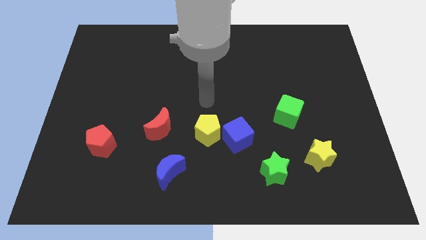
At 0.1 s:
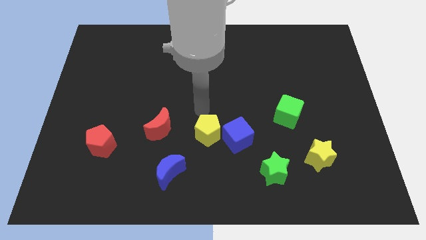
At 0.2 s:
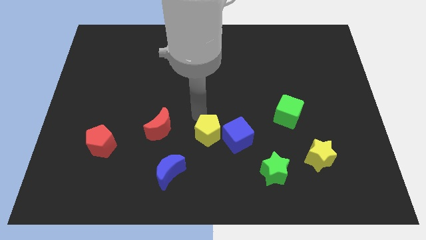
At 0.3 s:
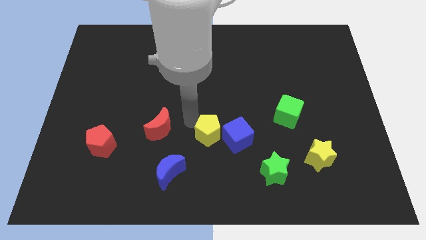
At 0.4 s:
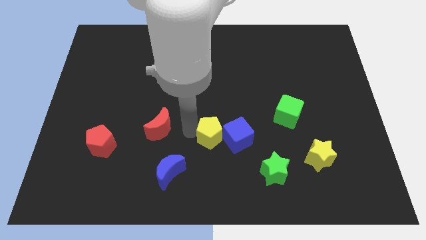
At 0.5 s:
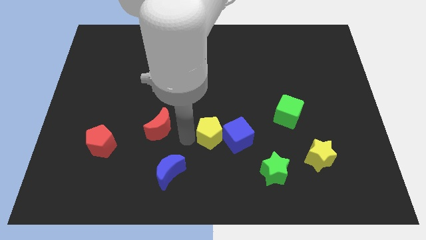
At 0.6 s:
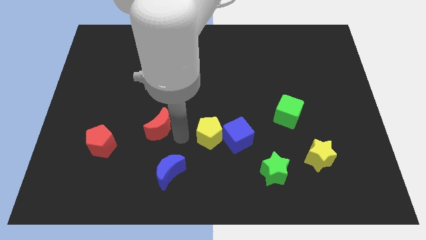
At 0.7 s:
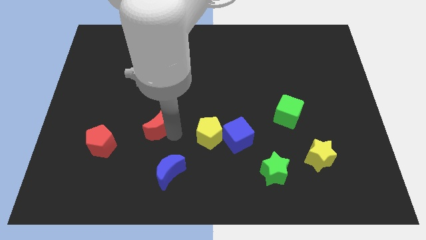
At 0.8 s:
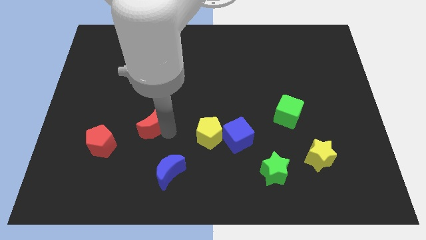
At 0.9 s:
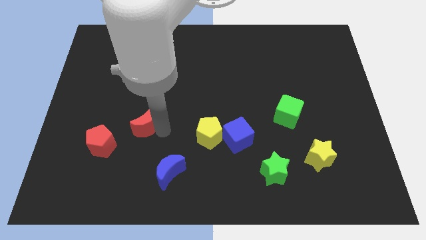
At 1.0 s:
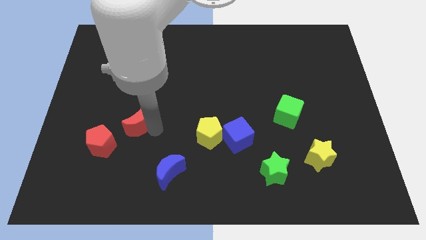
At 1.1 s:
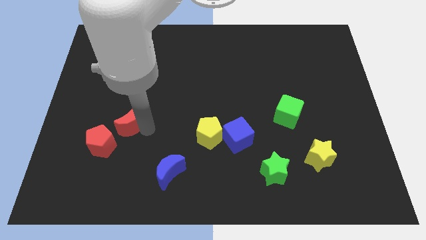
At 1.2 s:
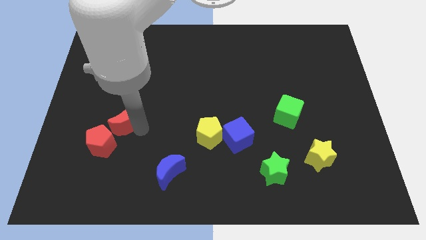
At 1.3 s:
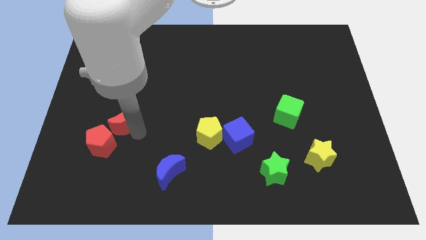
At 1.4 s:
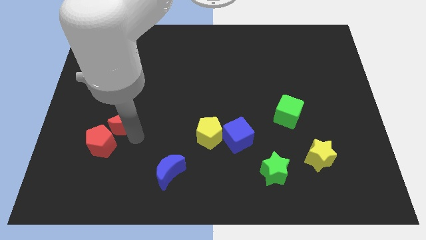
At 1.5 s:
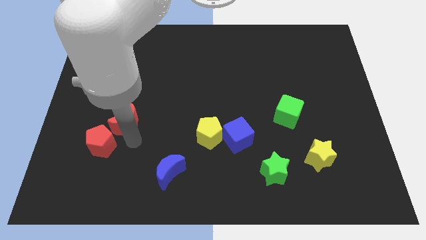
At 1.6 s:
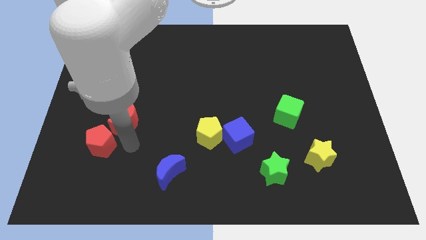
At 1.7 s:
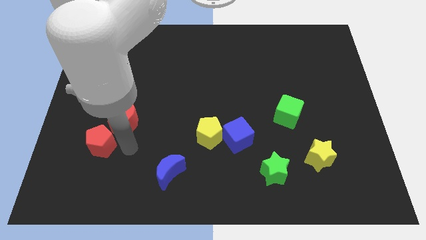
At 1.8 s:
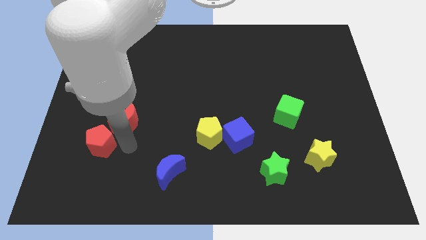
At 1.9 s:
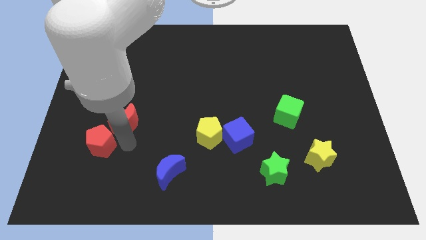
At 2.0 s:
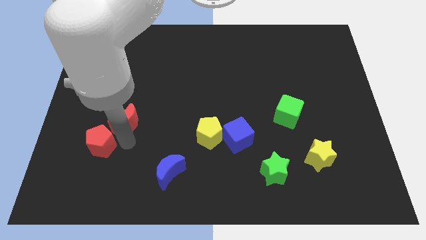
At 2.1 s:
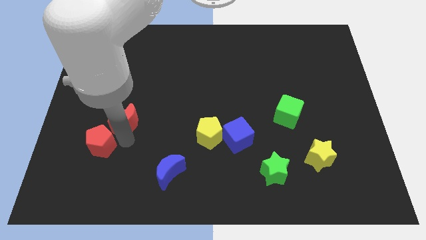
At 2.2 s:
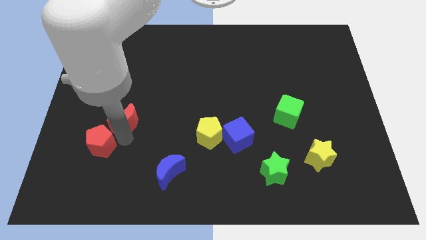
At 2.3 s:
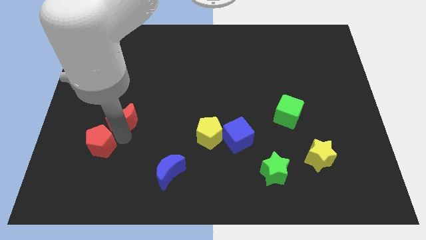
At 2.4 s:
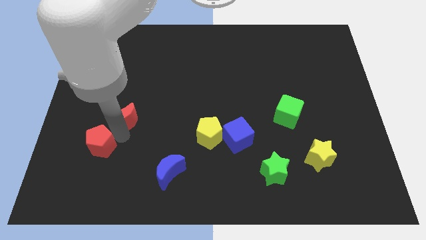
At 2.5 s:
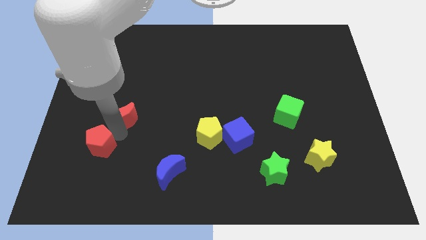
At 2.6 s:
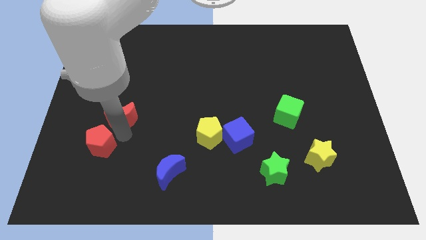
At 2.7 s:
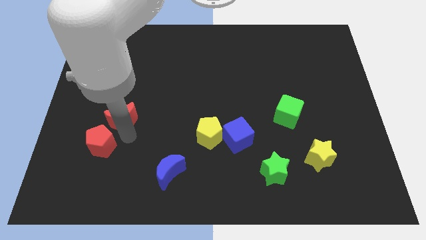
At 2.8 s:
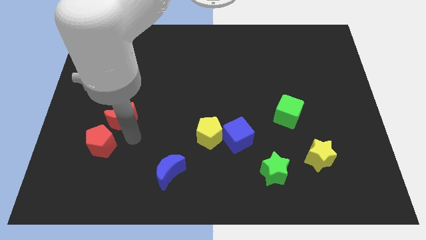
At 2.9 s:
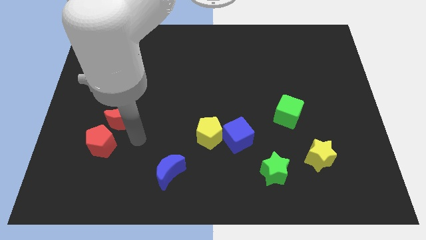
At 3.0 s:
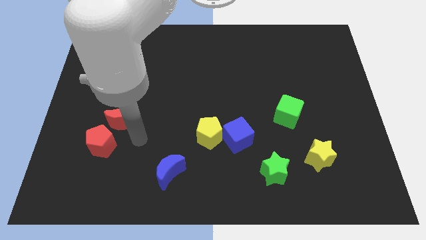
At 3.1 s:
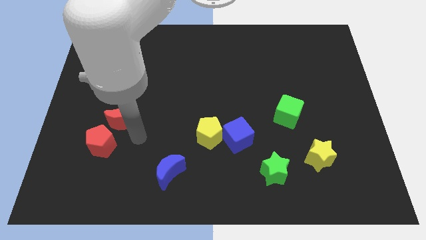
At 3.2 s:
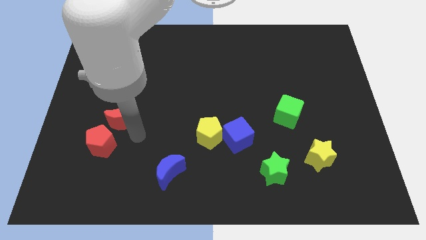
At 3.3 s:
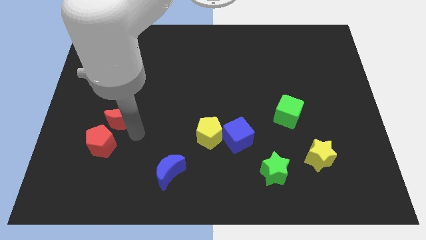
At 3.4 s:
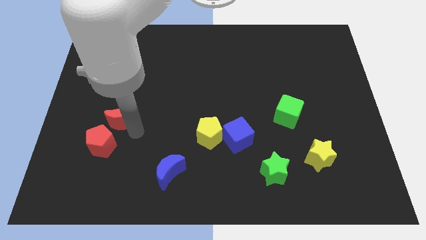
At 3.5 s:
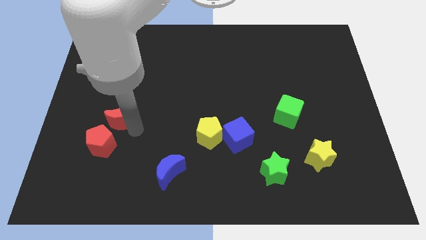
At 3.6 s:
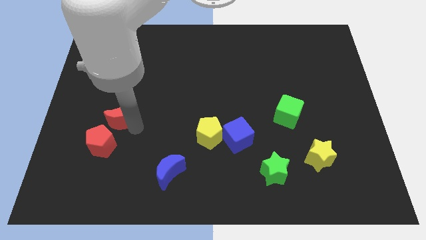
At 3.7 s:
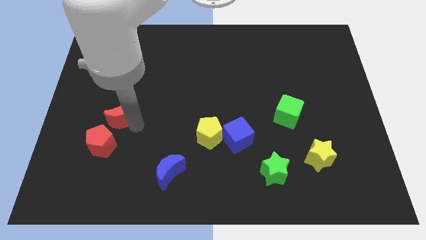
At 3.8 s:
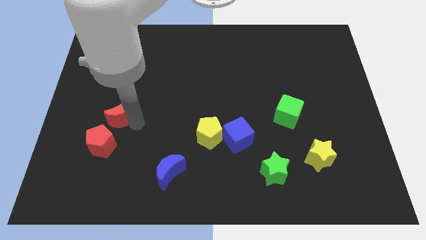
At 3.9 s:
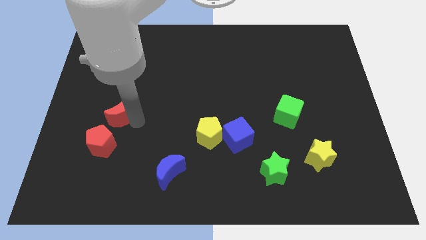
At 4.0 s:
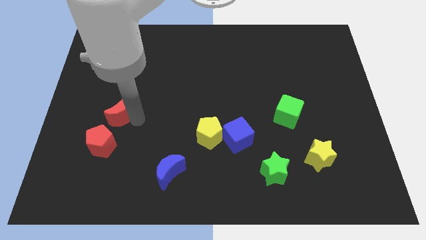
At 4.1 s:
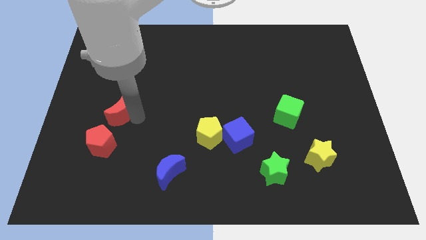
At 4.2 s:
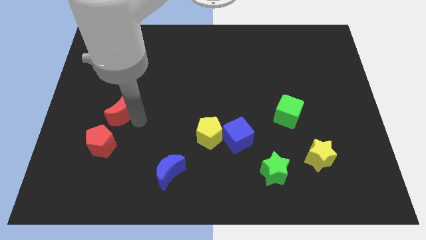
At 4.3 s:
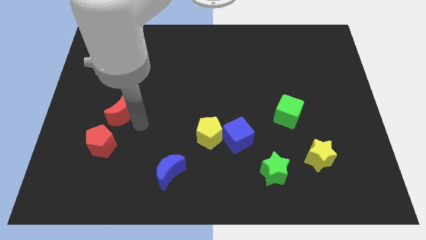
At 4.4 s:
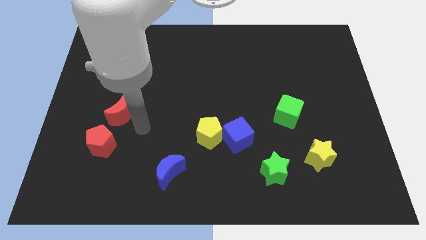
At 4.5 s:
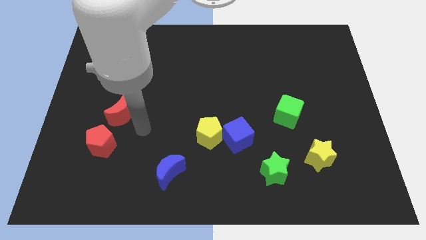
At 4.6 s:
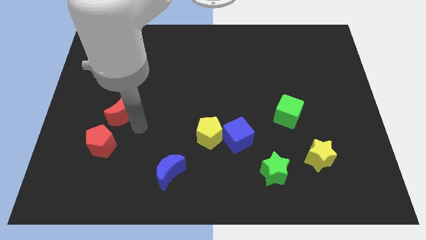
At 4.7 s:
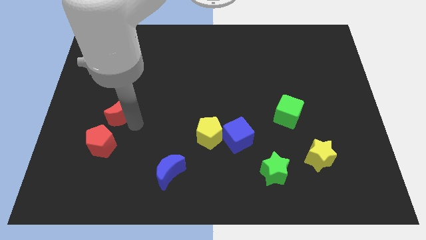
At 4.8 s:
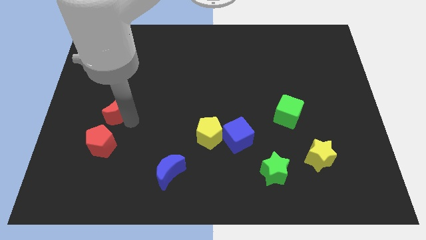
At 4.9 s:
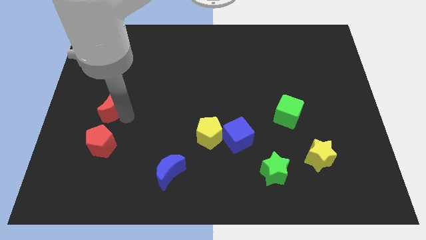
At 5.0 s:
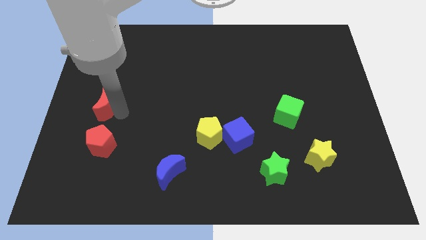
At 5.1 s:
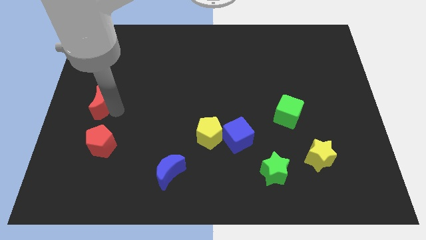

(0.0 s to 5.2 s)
move the red moon to the center left

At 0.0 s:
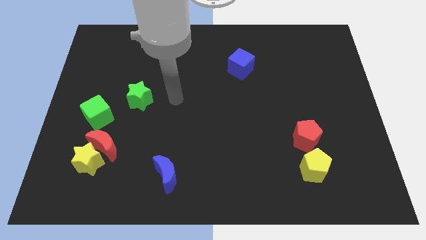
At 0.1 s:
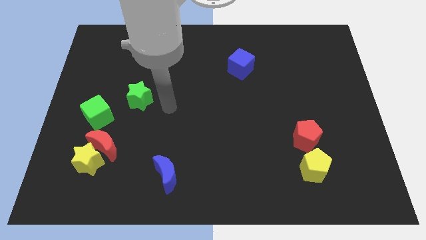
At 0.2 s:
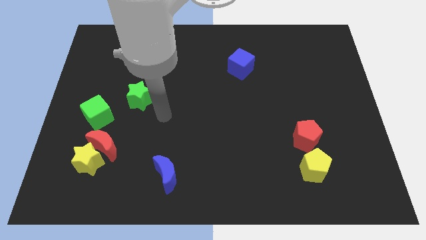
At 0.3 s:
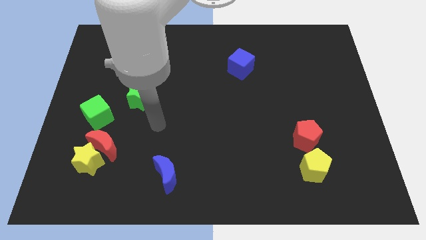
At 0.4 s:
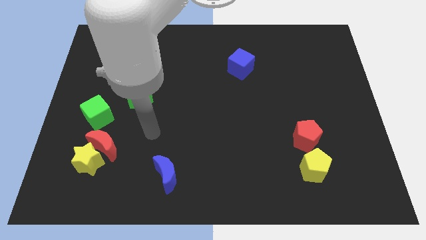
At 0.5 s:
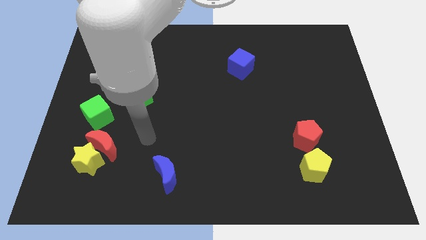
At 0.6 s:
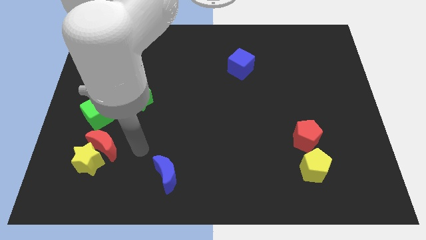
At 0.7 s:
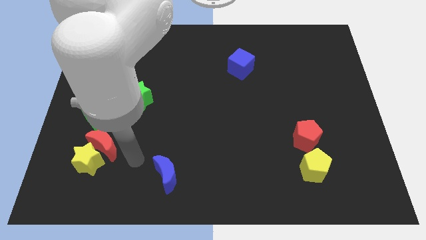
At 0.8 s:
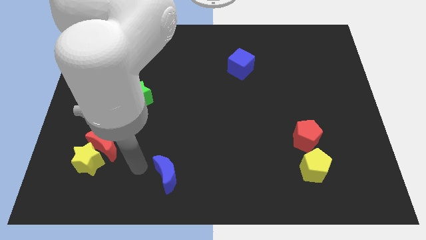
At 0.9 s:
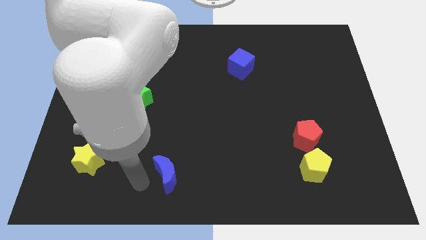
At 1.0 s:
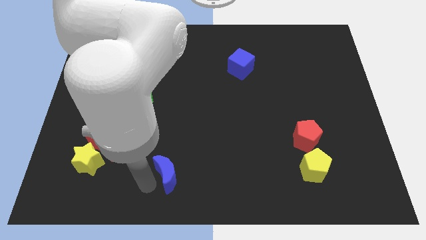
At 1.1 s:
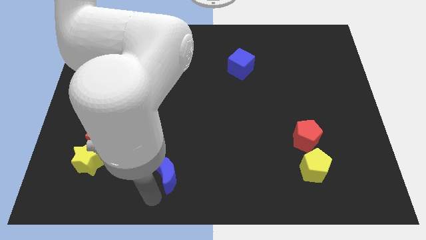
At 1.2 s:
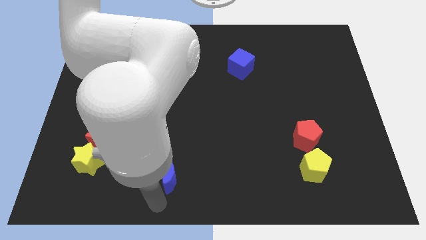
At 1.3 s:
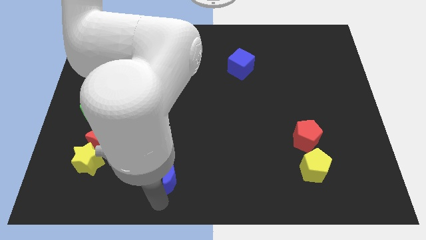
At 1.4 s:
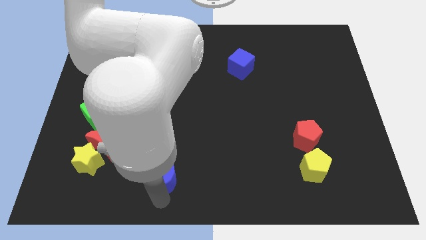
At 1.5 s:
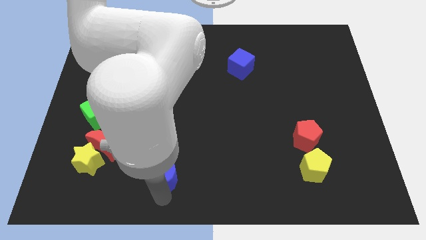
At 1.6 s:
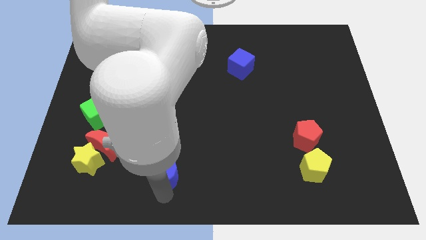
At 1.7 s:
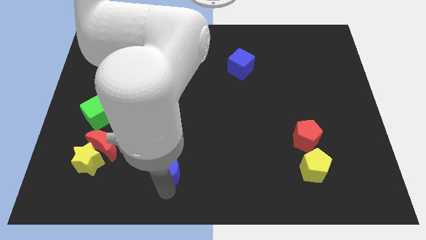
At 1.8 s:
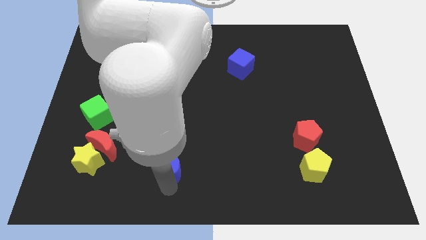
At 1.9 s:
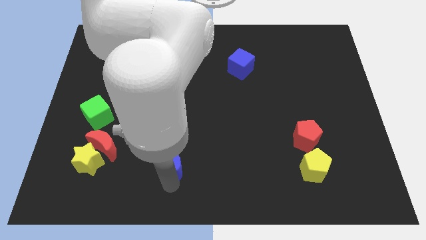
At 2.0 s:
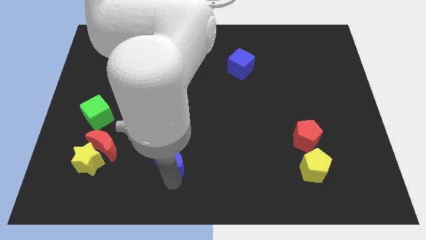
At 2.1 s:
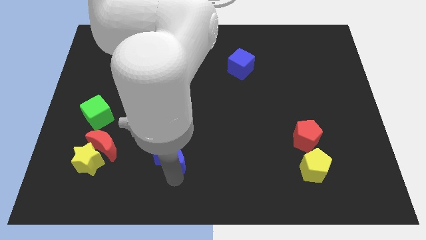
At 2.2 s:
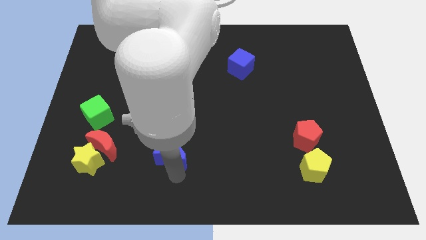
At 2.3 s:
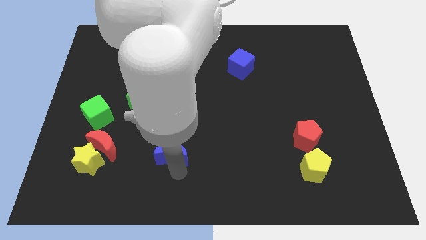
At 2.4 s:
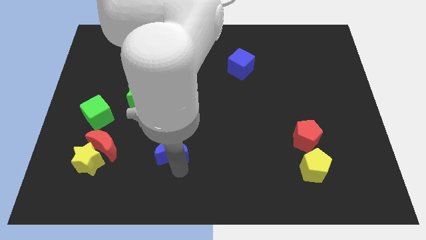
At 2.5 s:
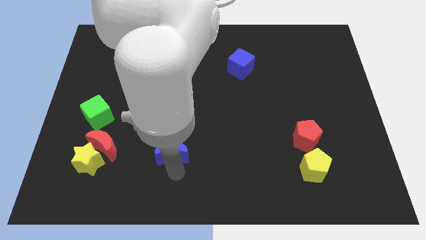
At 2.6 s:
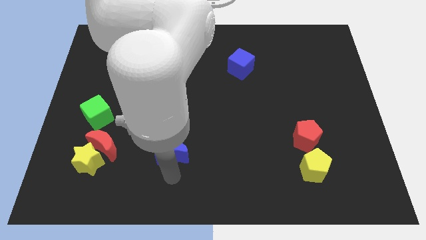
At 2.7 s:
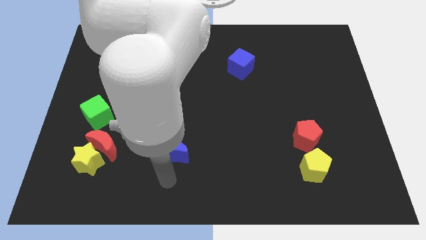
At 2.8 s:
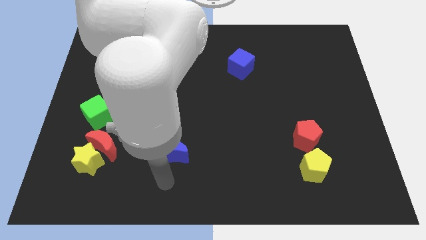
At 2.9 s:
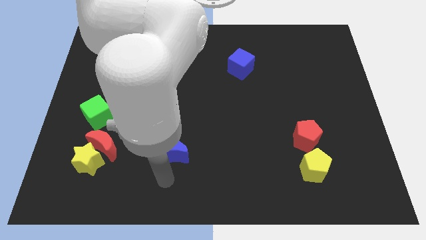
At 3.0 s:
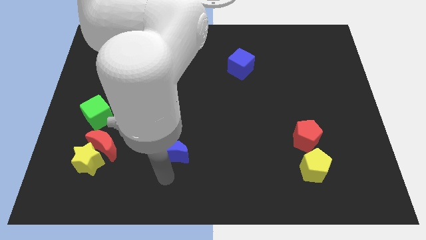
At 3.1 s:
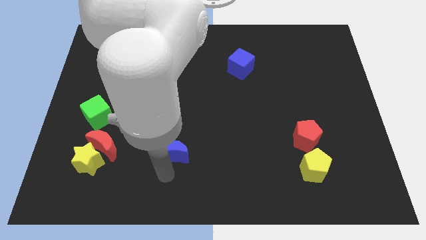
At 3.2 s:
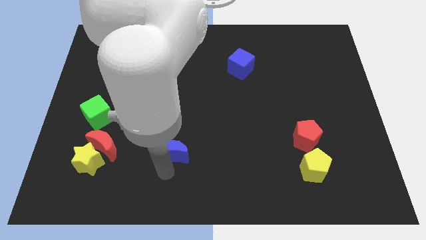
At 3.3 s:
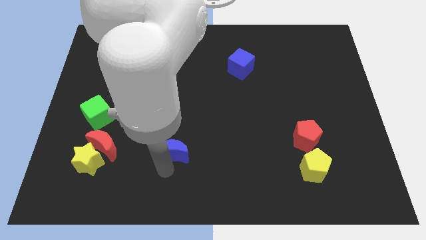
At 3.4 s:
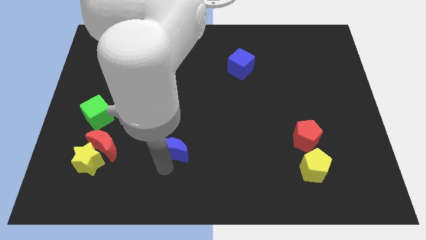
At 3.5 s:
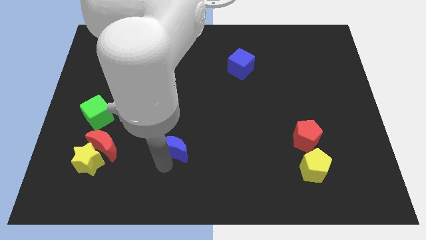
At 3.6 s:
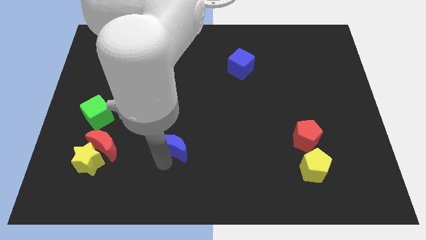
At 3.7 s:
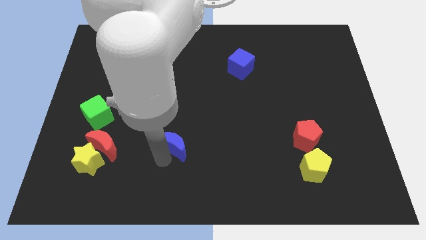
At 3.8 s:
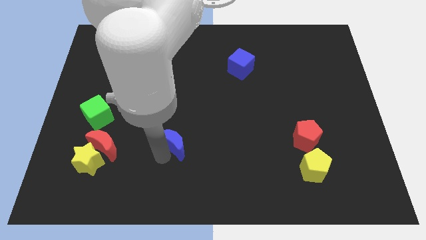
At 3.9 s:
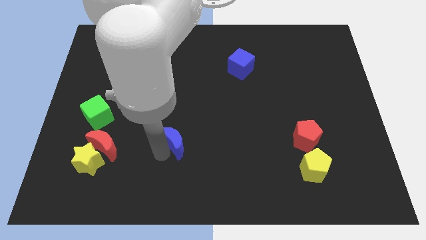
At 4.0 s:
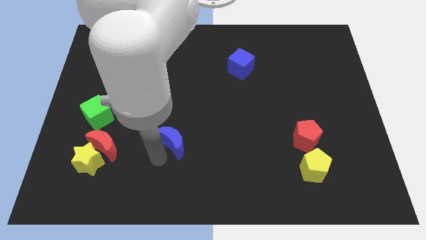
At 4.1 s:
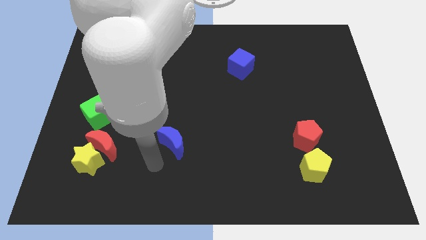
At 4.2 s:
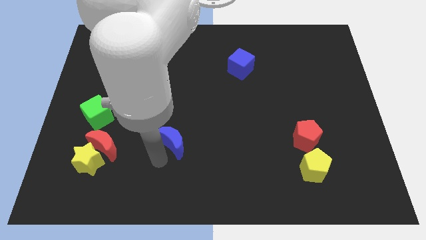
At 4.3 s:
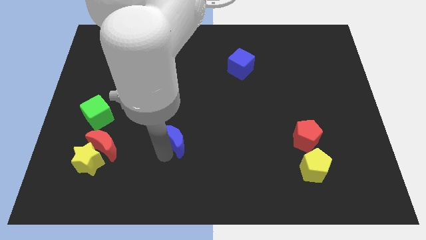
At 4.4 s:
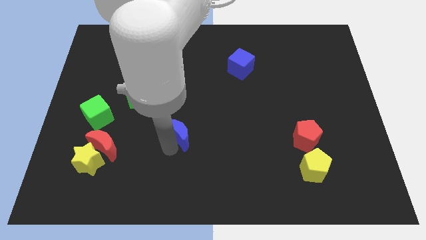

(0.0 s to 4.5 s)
slide the blue moon to the center of the board
